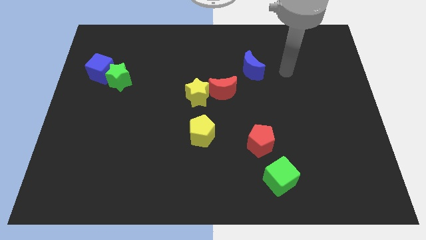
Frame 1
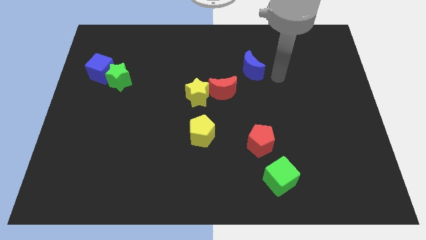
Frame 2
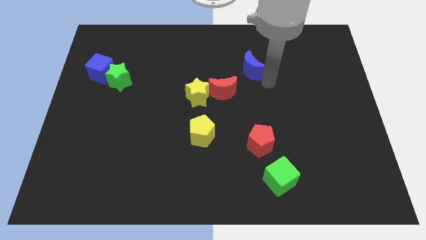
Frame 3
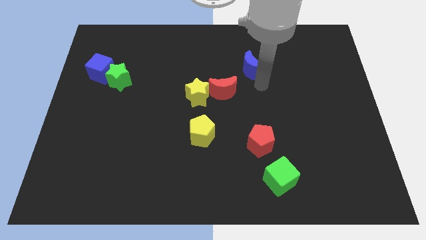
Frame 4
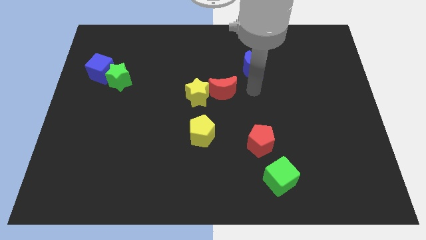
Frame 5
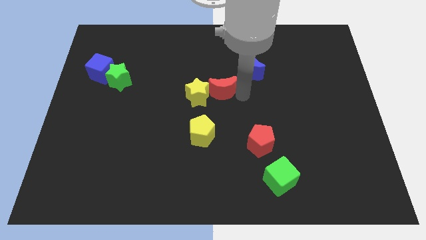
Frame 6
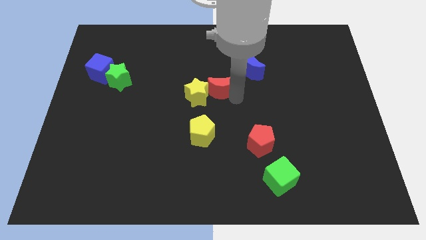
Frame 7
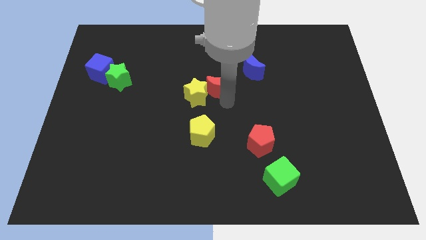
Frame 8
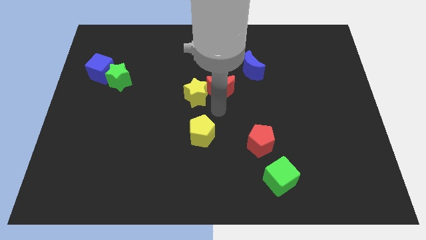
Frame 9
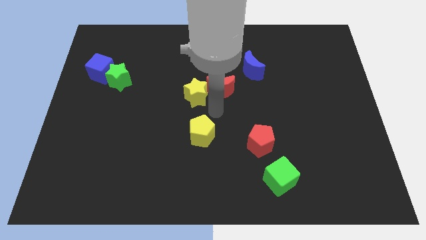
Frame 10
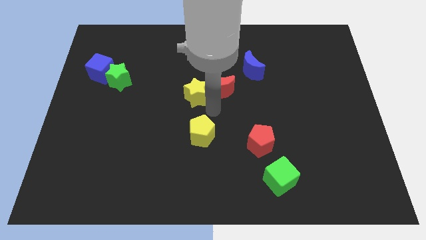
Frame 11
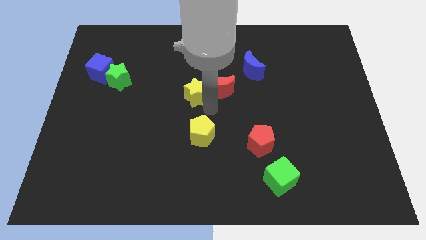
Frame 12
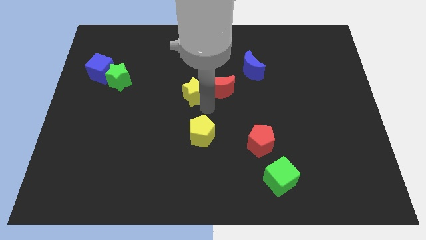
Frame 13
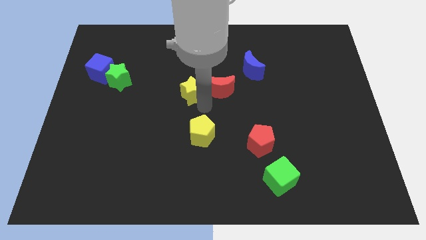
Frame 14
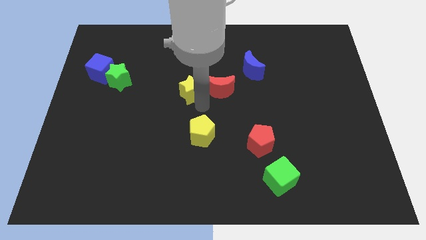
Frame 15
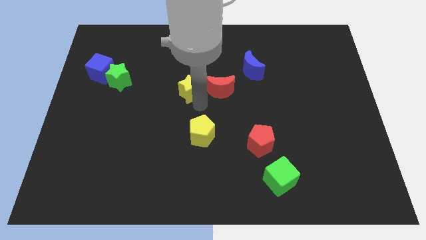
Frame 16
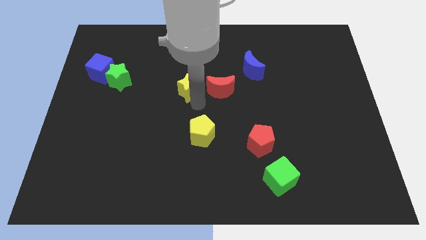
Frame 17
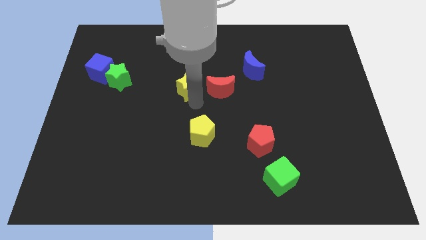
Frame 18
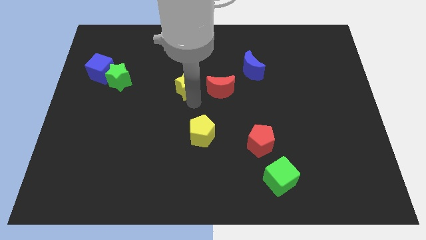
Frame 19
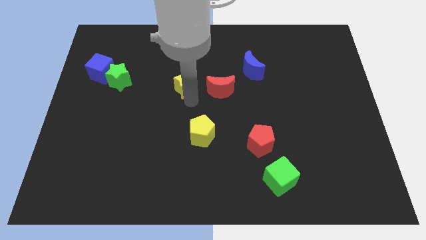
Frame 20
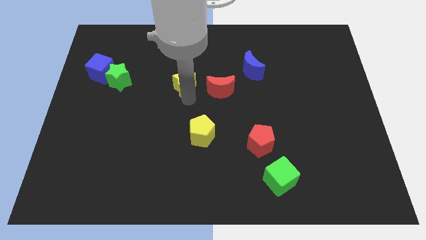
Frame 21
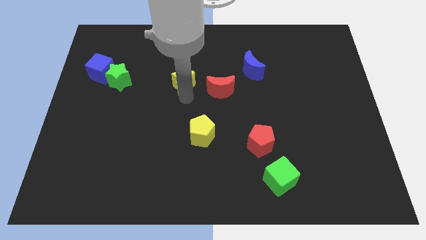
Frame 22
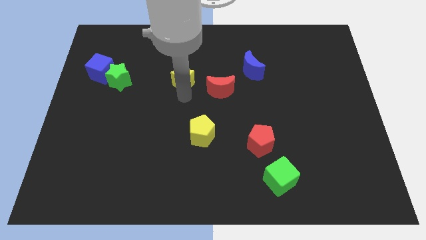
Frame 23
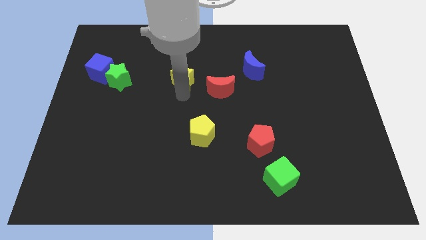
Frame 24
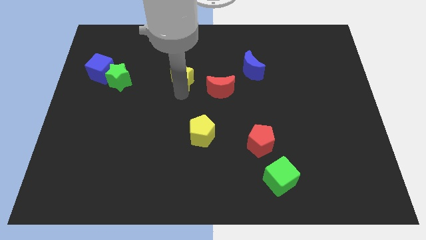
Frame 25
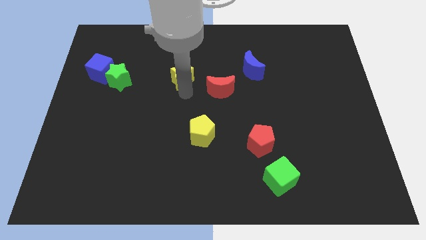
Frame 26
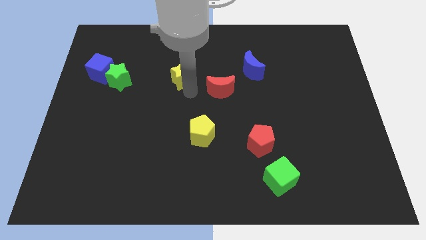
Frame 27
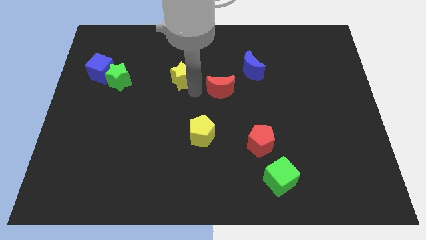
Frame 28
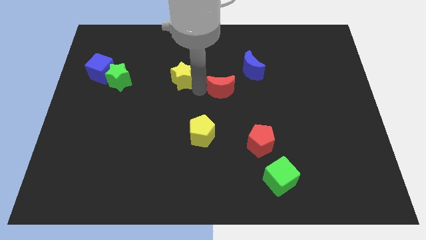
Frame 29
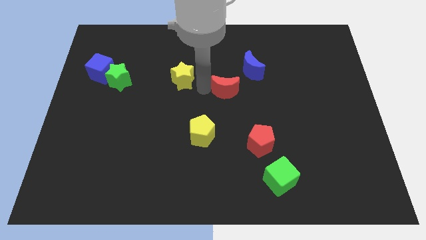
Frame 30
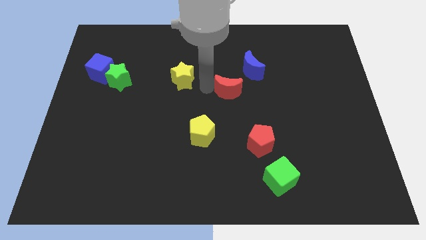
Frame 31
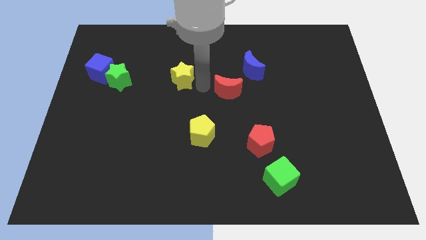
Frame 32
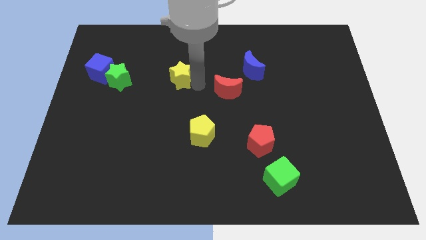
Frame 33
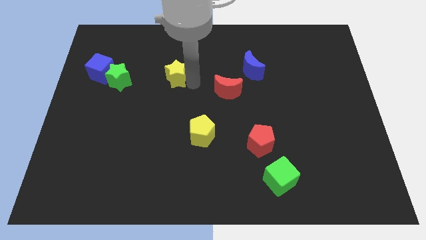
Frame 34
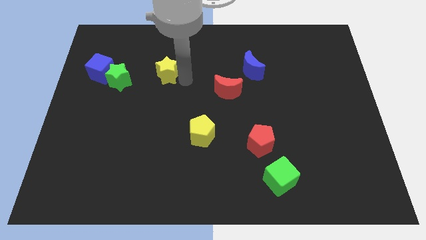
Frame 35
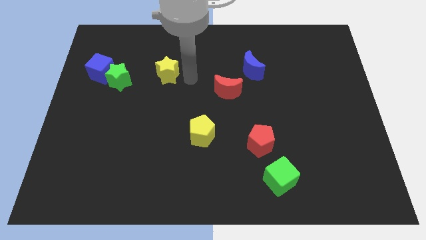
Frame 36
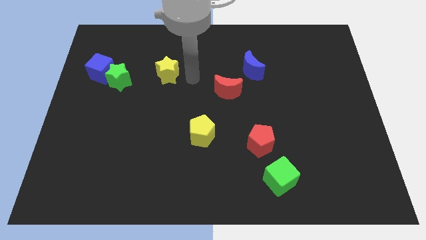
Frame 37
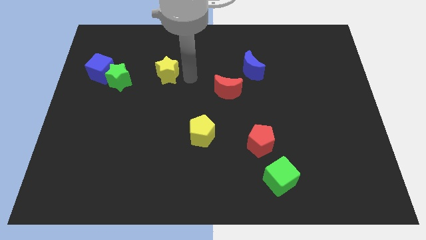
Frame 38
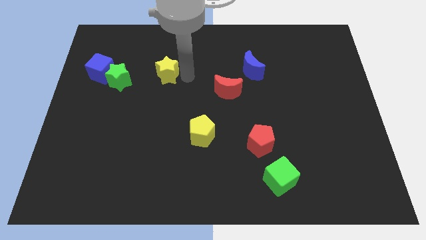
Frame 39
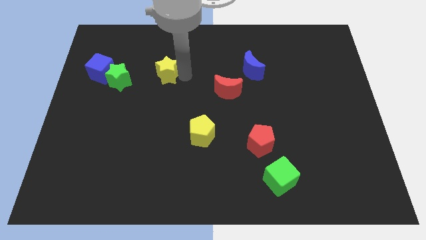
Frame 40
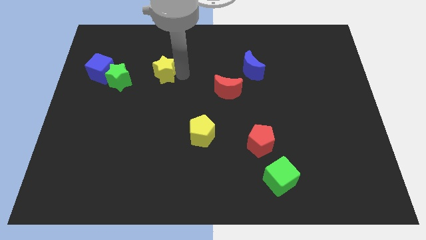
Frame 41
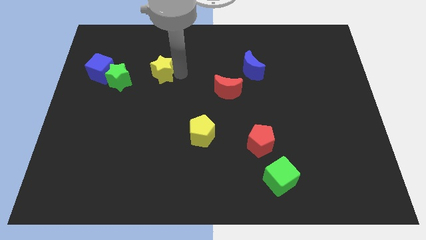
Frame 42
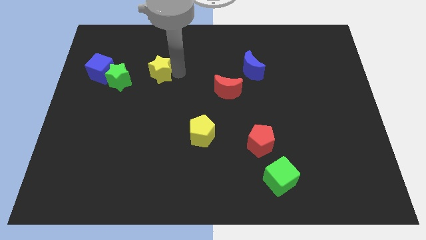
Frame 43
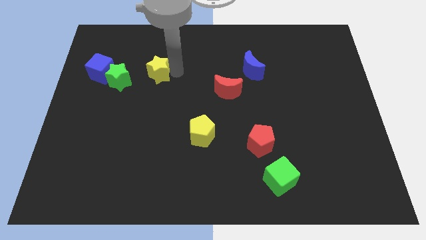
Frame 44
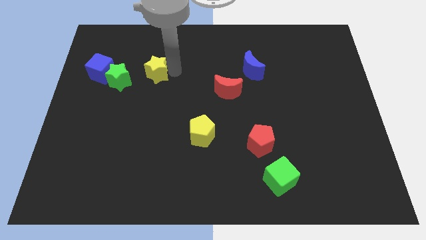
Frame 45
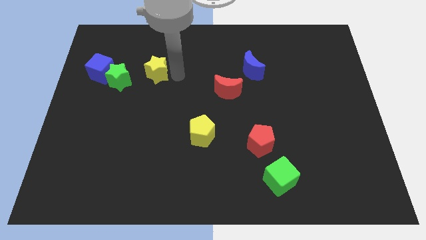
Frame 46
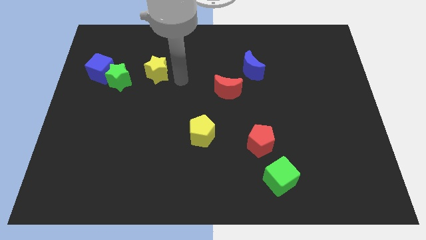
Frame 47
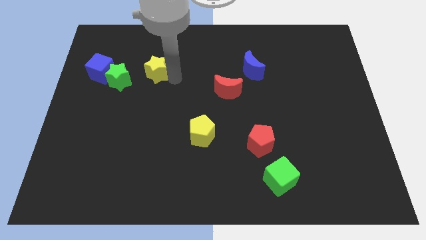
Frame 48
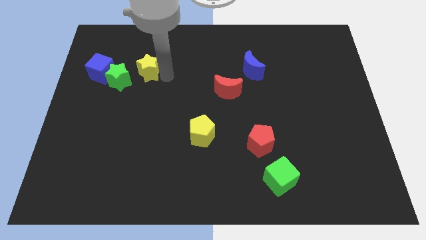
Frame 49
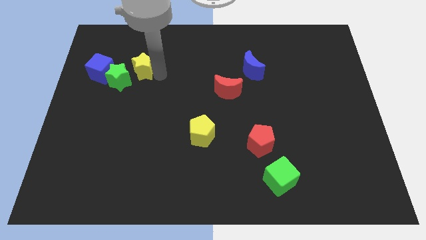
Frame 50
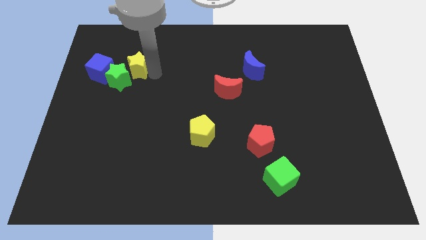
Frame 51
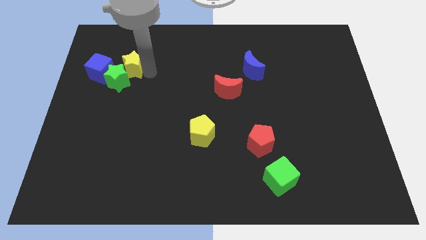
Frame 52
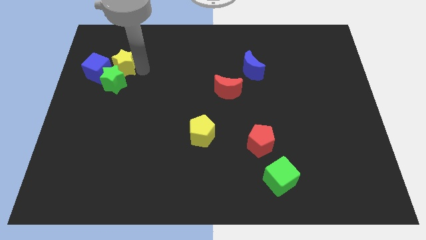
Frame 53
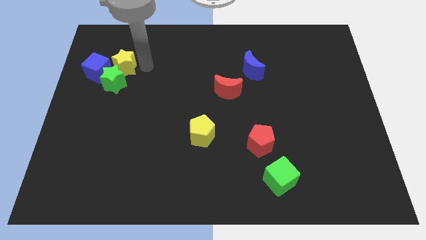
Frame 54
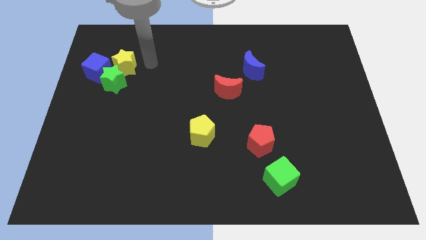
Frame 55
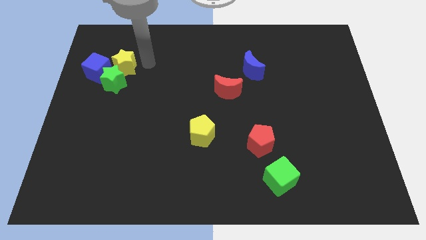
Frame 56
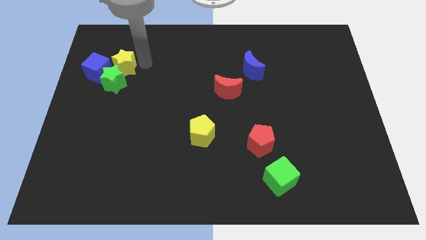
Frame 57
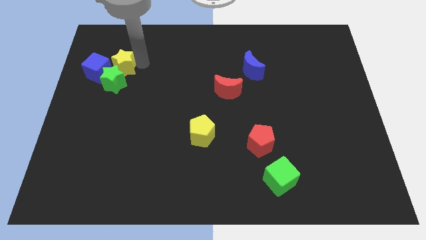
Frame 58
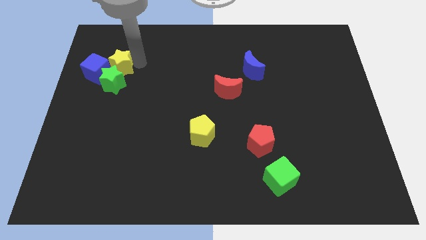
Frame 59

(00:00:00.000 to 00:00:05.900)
move the yellow star towards the blue cube

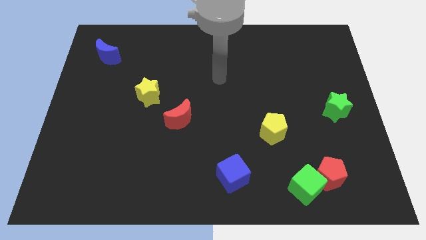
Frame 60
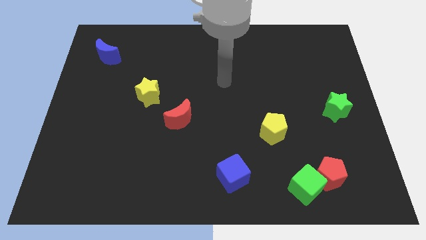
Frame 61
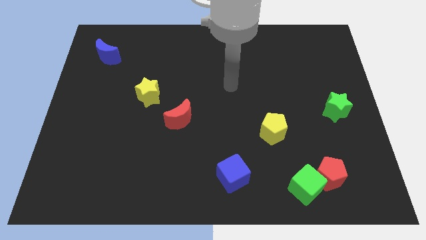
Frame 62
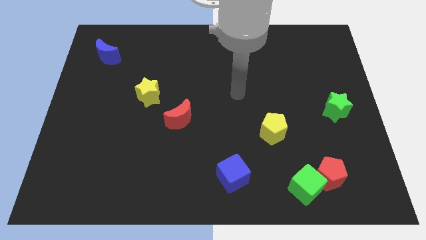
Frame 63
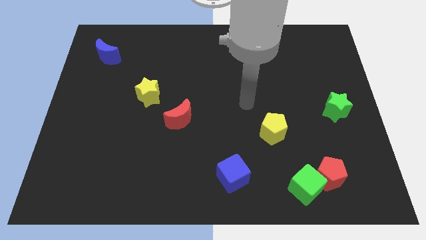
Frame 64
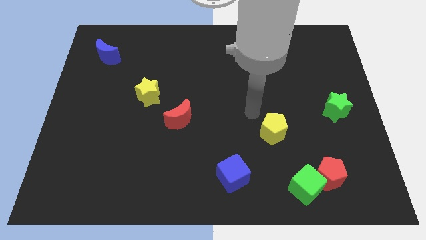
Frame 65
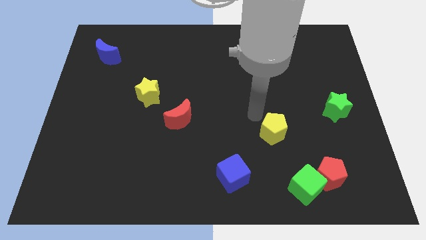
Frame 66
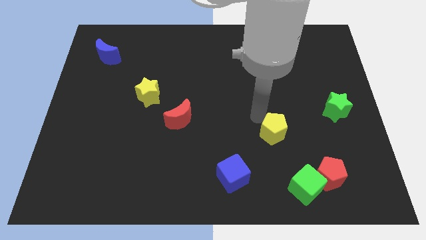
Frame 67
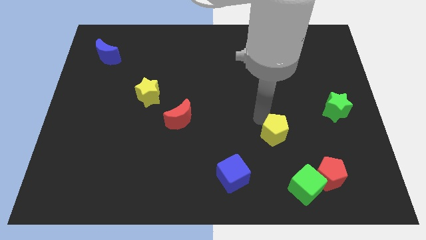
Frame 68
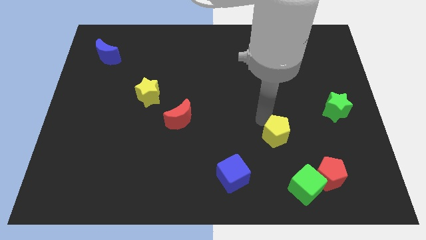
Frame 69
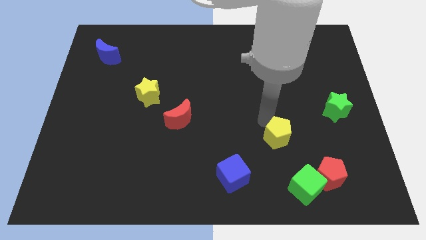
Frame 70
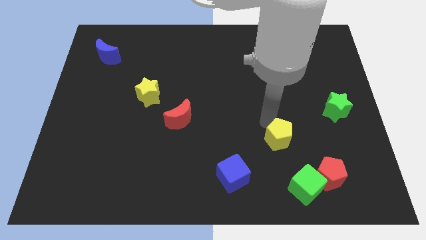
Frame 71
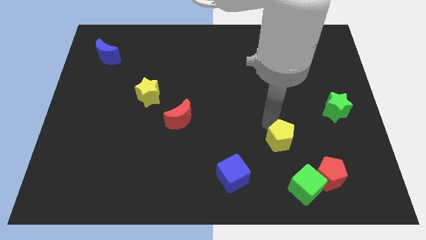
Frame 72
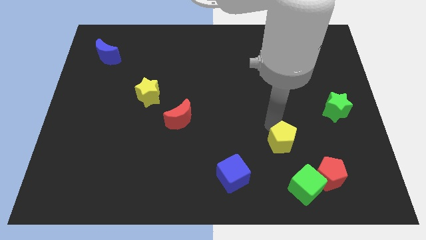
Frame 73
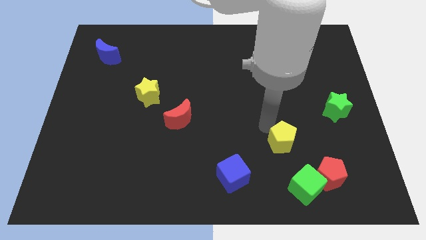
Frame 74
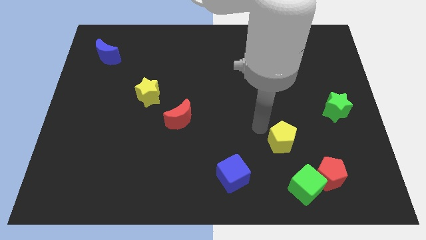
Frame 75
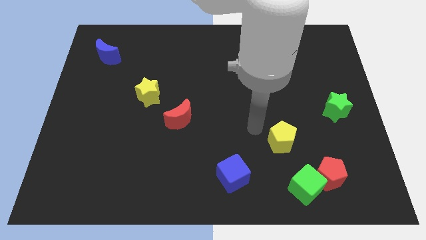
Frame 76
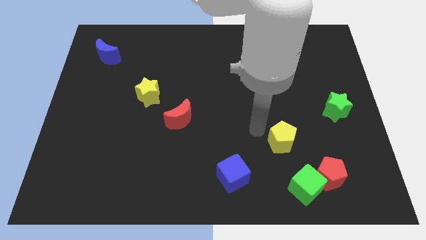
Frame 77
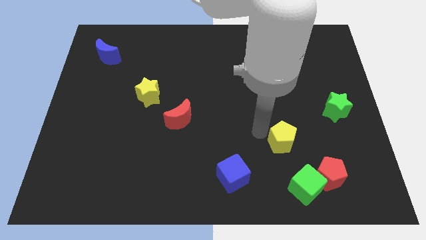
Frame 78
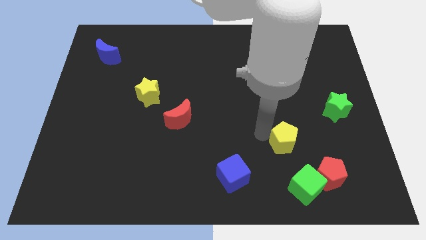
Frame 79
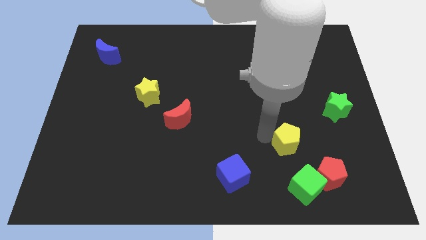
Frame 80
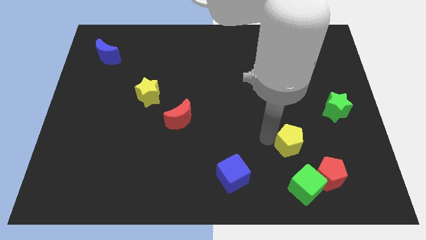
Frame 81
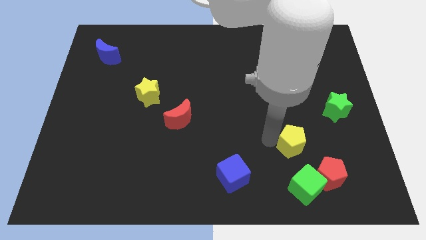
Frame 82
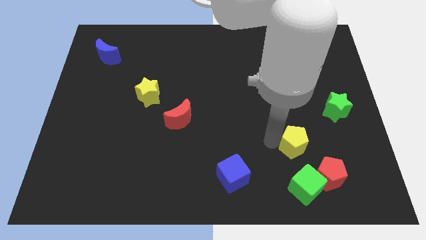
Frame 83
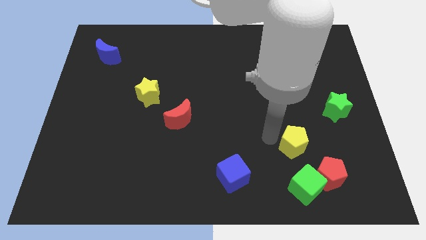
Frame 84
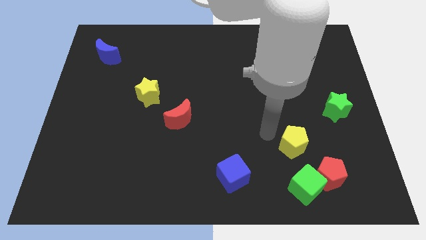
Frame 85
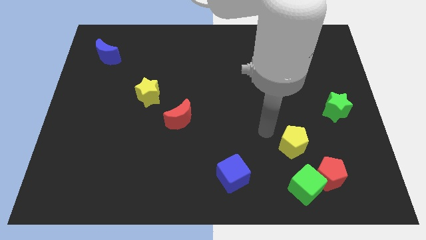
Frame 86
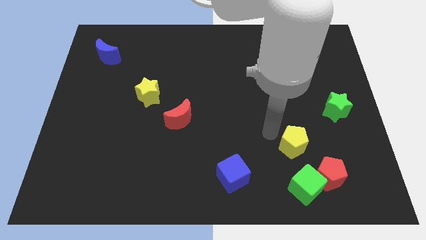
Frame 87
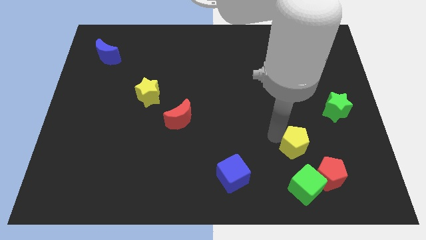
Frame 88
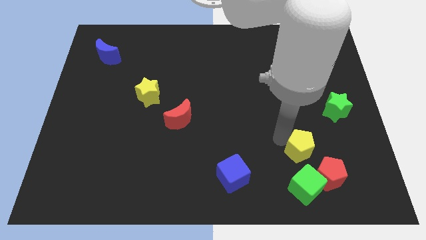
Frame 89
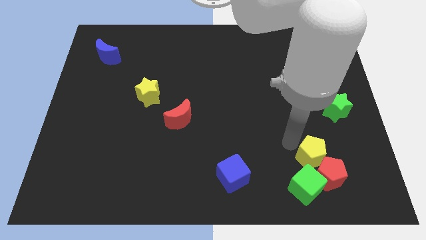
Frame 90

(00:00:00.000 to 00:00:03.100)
move the yellow pentagon to the red pentagon
